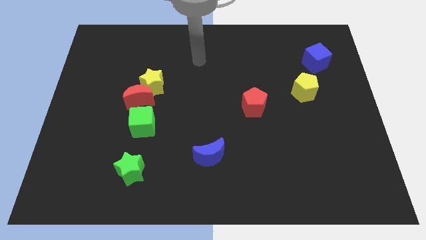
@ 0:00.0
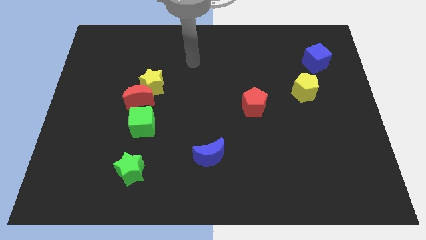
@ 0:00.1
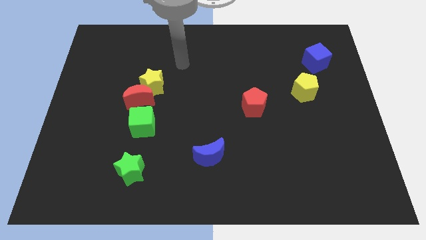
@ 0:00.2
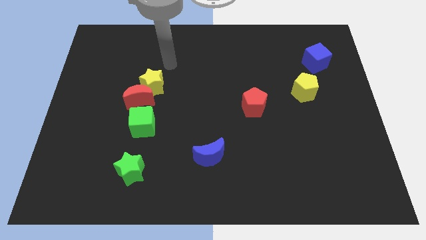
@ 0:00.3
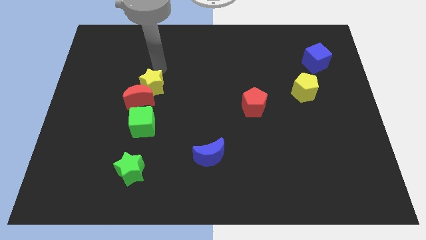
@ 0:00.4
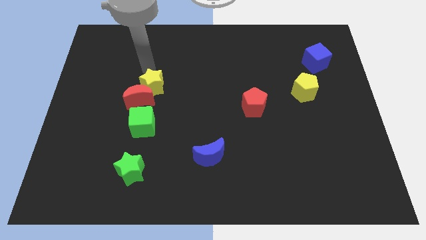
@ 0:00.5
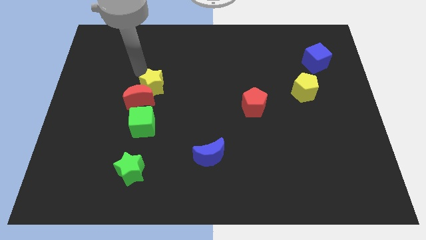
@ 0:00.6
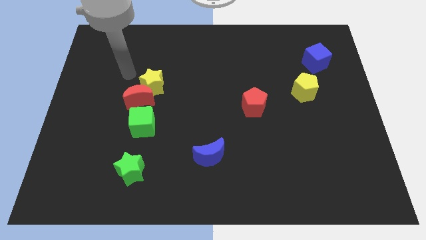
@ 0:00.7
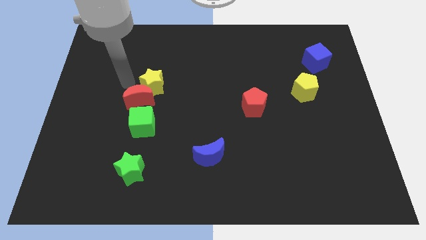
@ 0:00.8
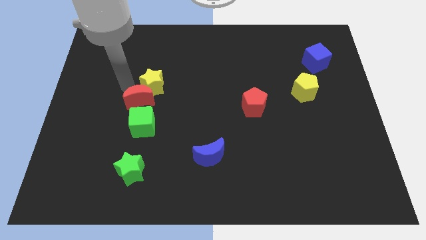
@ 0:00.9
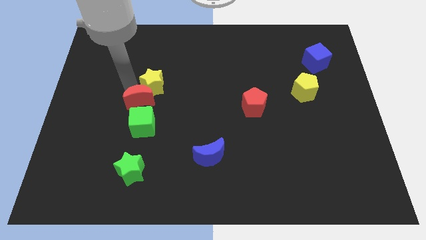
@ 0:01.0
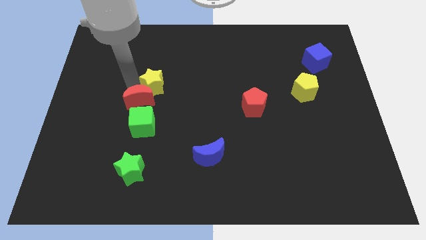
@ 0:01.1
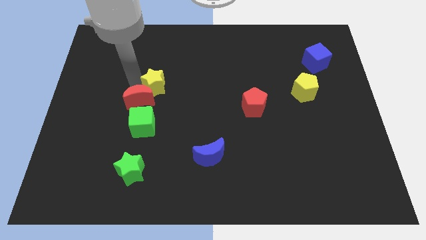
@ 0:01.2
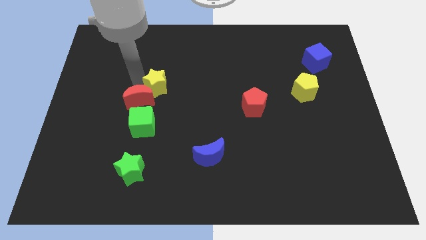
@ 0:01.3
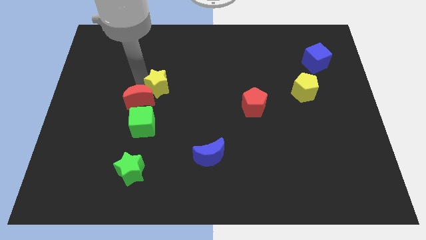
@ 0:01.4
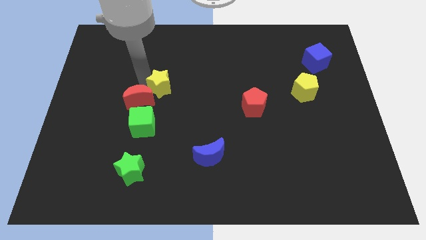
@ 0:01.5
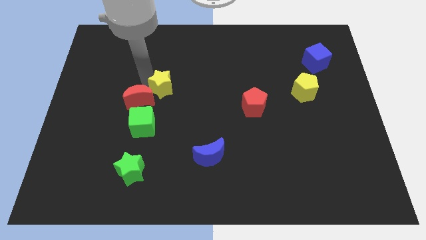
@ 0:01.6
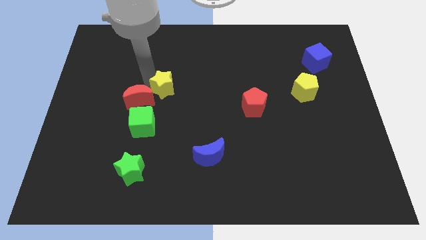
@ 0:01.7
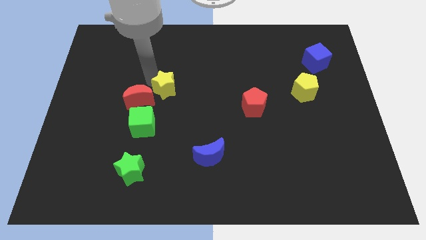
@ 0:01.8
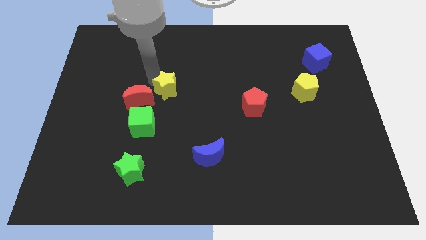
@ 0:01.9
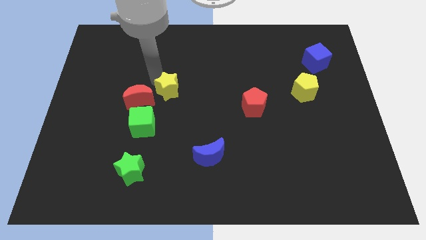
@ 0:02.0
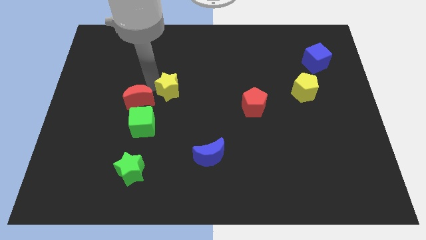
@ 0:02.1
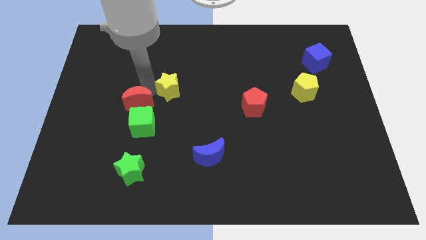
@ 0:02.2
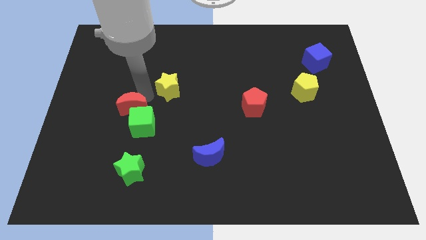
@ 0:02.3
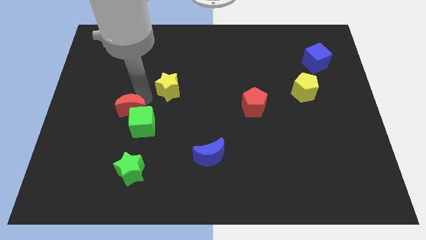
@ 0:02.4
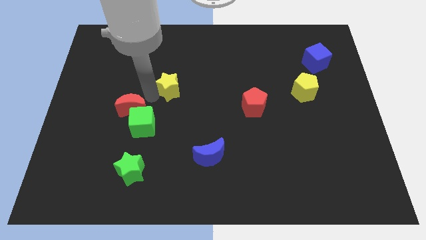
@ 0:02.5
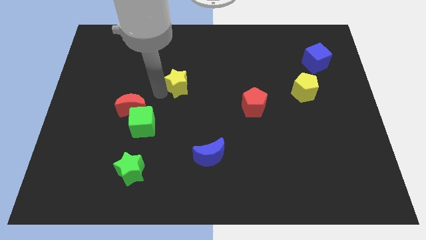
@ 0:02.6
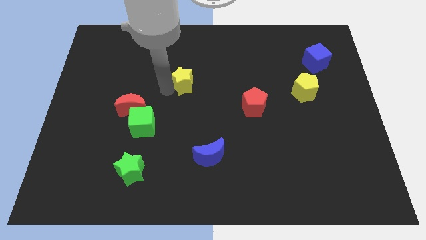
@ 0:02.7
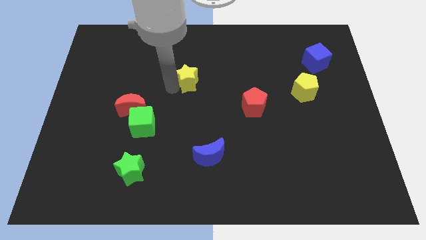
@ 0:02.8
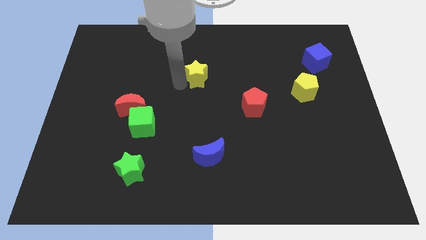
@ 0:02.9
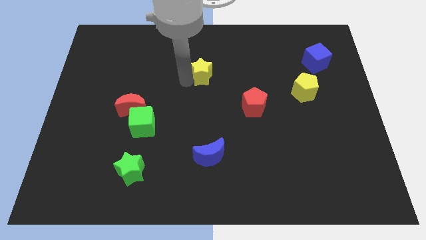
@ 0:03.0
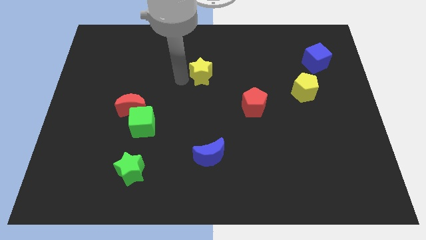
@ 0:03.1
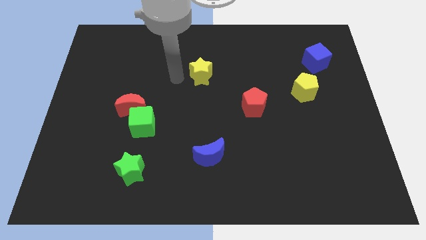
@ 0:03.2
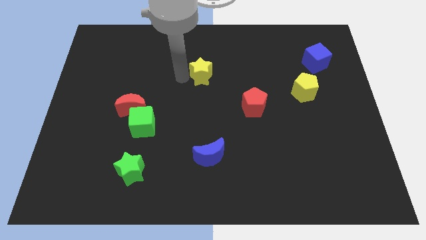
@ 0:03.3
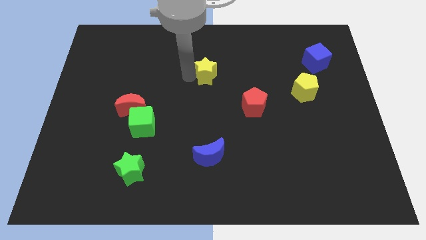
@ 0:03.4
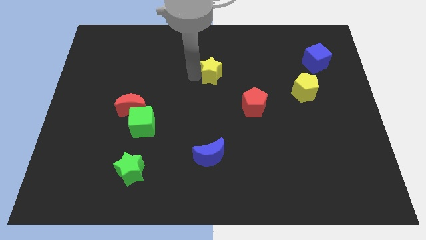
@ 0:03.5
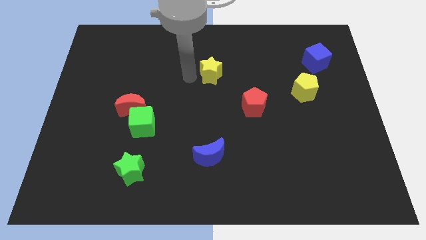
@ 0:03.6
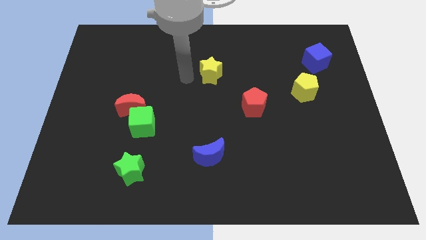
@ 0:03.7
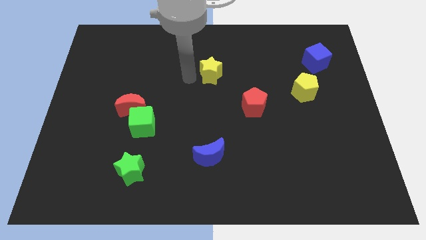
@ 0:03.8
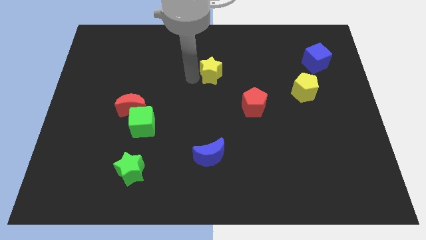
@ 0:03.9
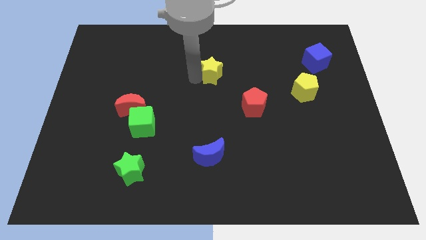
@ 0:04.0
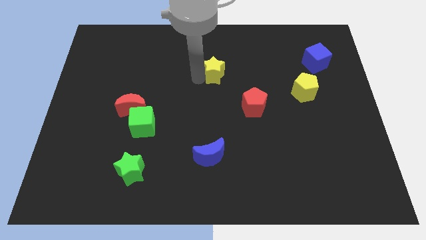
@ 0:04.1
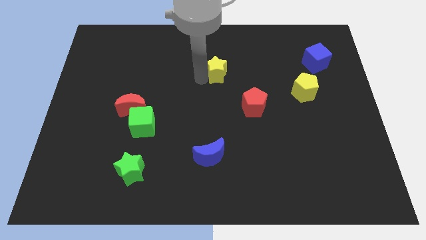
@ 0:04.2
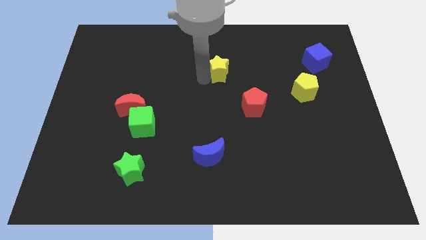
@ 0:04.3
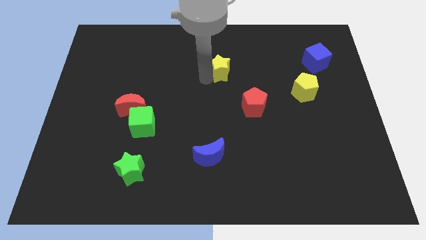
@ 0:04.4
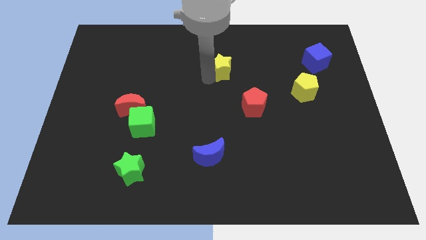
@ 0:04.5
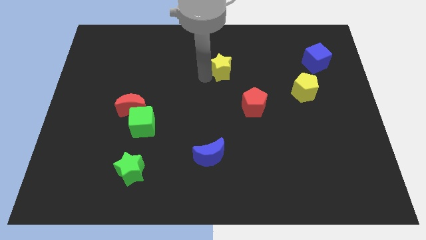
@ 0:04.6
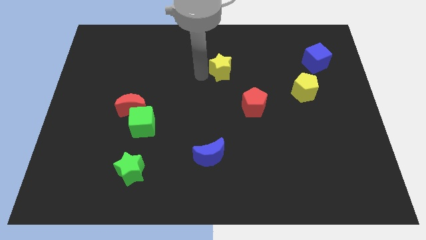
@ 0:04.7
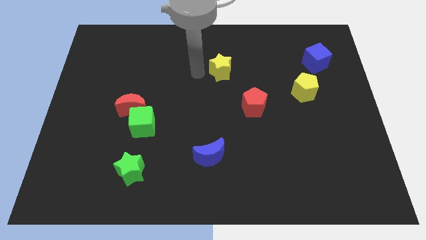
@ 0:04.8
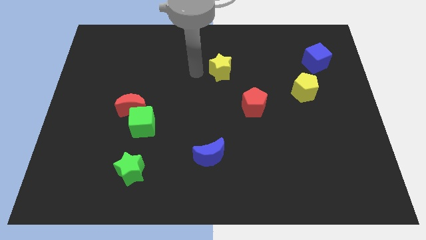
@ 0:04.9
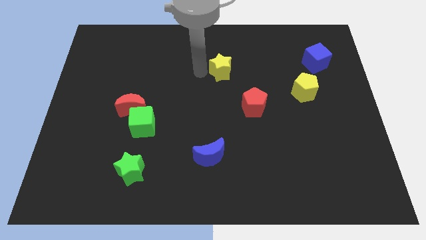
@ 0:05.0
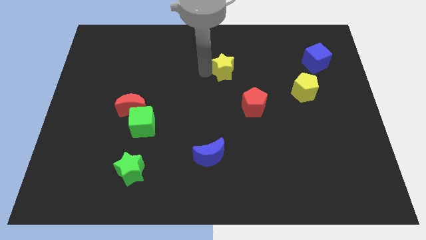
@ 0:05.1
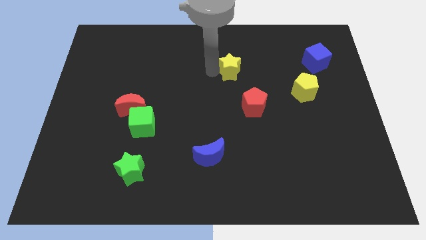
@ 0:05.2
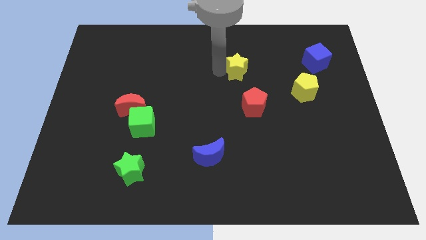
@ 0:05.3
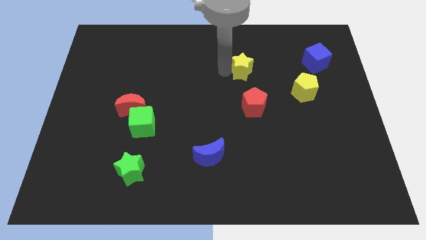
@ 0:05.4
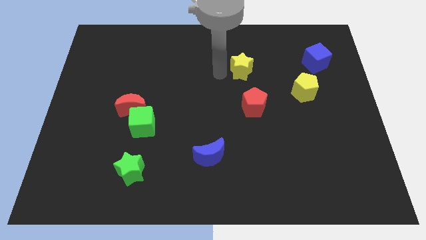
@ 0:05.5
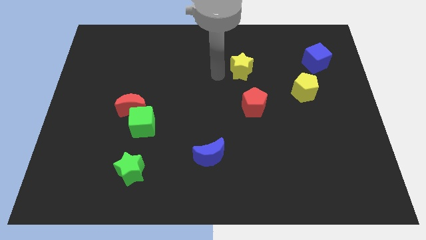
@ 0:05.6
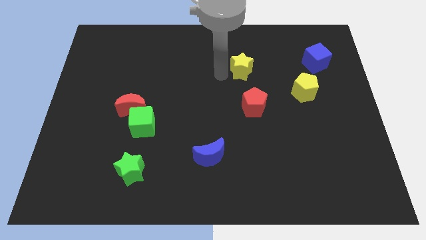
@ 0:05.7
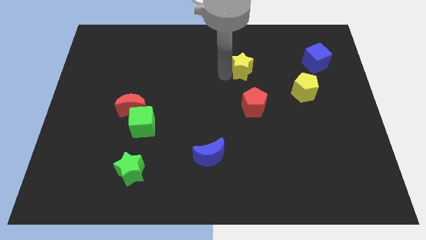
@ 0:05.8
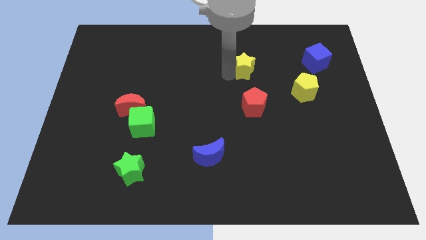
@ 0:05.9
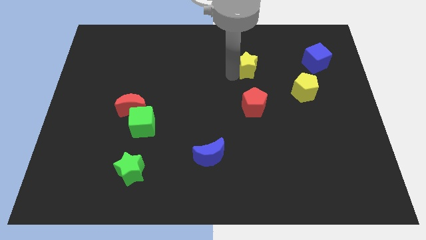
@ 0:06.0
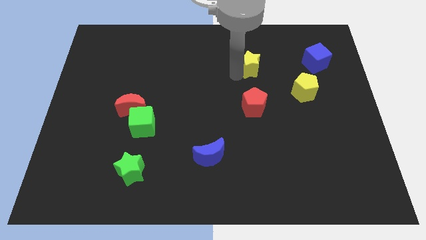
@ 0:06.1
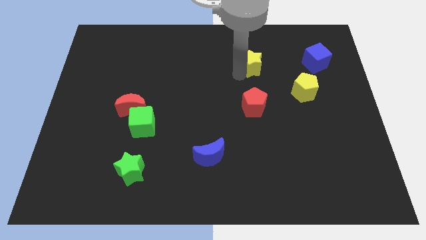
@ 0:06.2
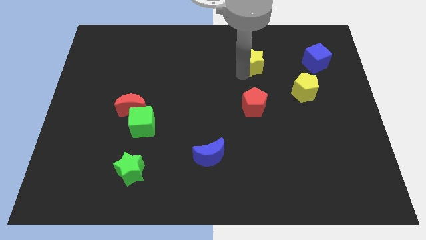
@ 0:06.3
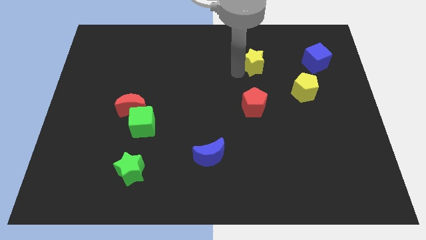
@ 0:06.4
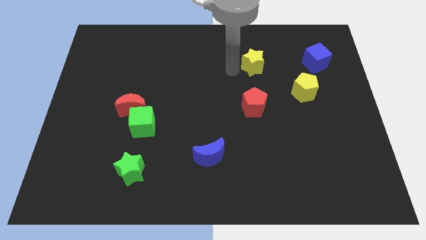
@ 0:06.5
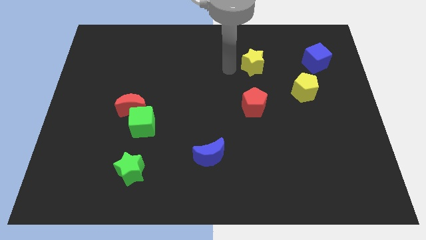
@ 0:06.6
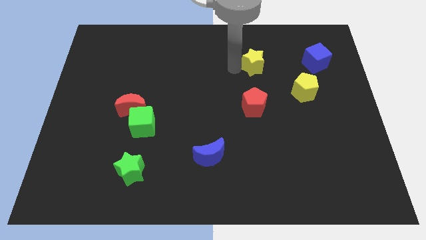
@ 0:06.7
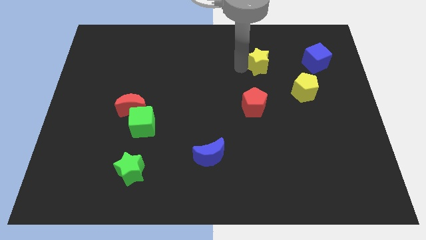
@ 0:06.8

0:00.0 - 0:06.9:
move the yellow star just left of the blue cube
